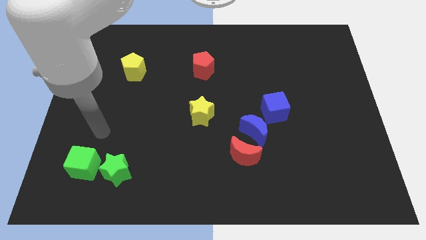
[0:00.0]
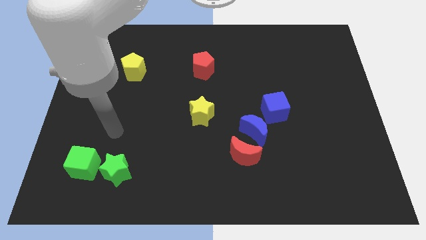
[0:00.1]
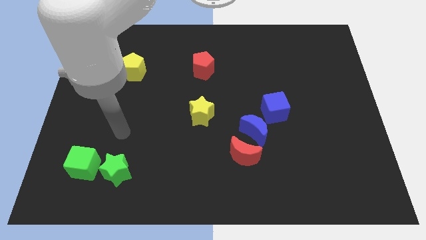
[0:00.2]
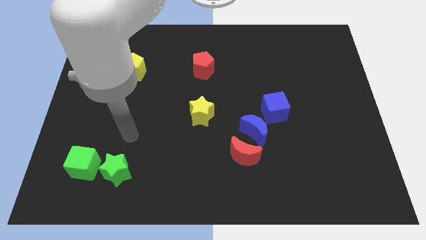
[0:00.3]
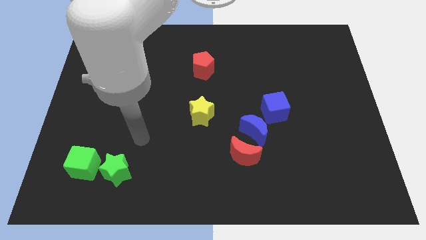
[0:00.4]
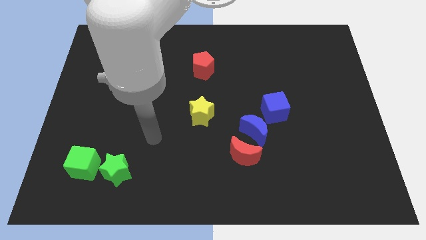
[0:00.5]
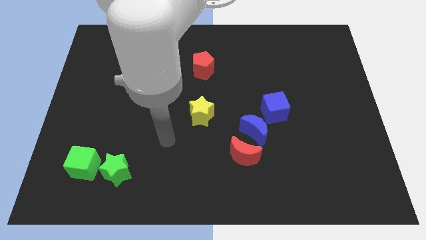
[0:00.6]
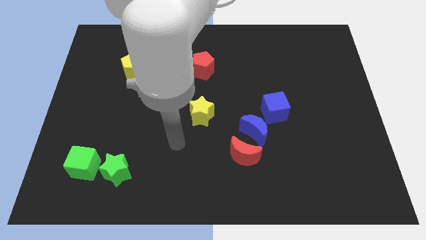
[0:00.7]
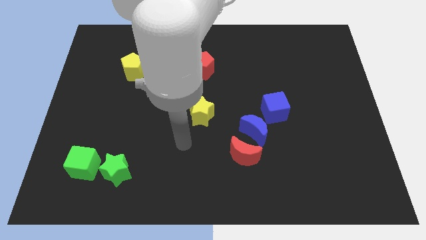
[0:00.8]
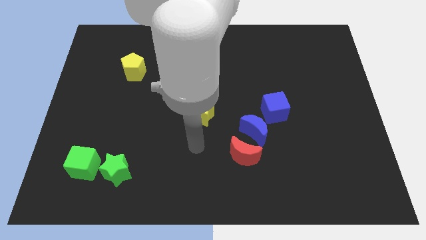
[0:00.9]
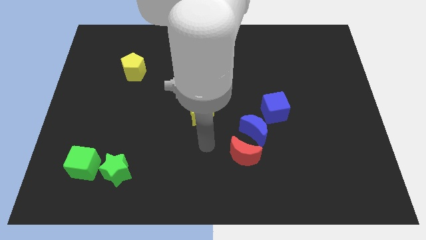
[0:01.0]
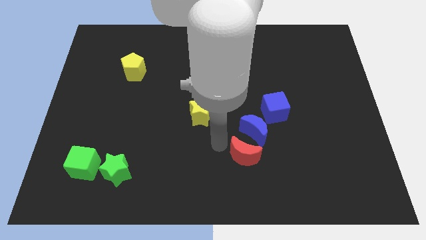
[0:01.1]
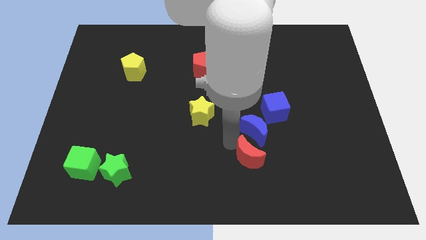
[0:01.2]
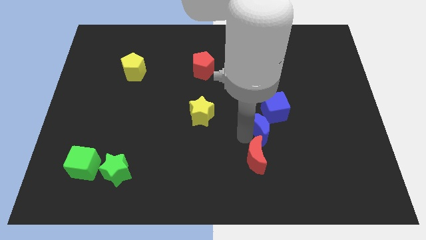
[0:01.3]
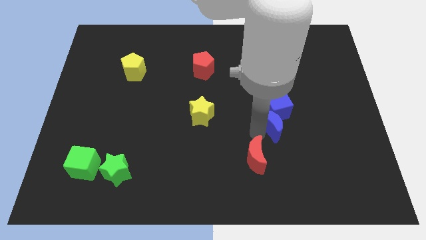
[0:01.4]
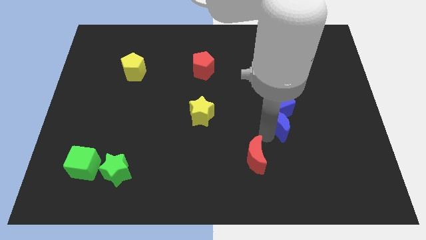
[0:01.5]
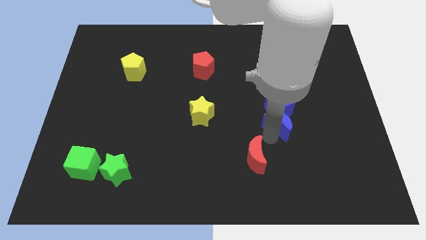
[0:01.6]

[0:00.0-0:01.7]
separate the red moon from the blue moon

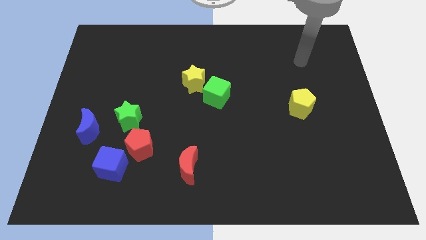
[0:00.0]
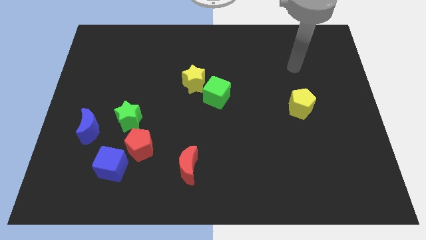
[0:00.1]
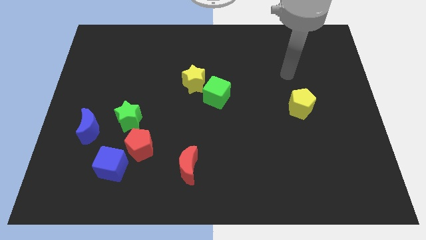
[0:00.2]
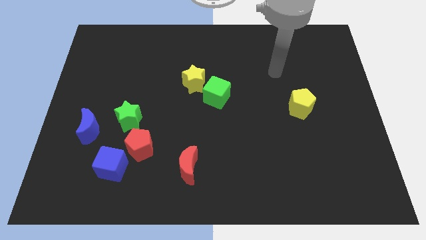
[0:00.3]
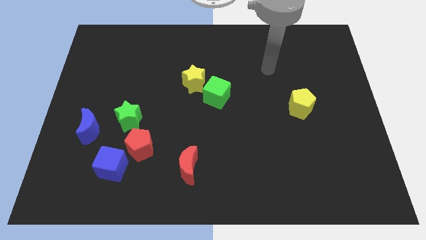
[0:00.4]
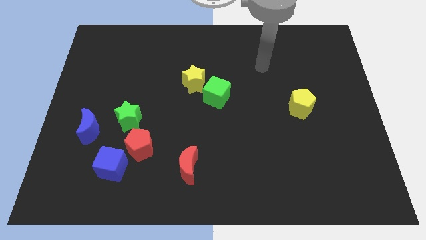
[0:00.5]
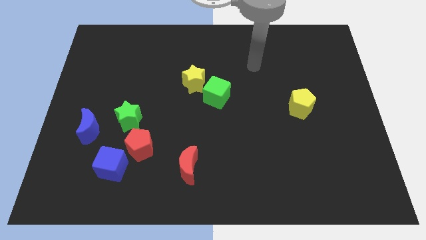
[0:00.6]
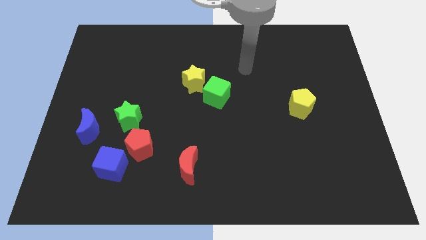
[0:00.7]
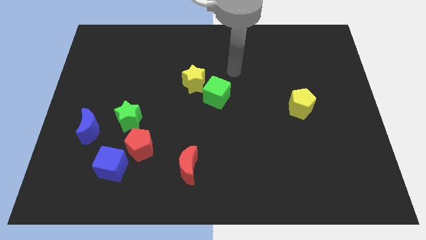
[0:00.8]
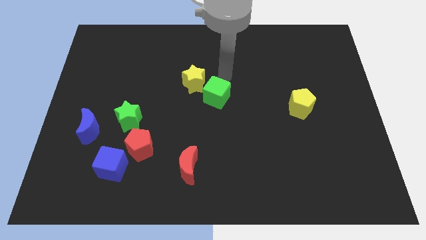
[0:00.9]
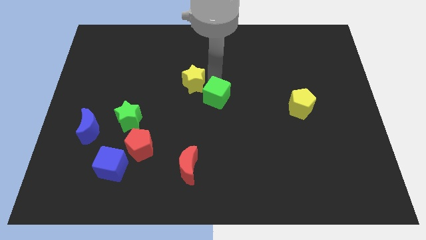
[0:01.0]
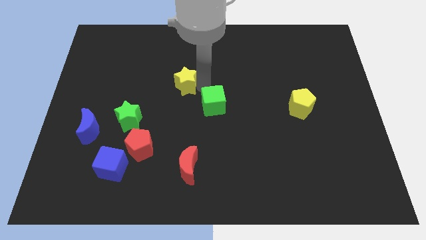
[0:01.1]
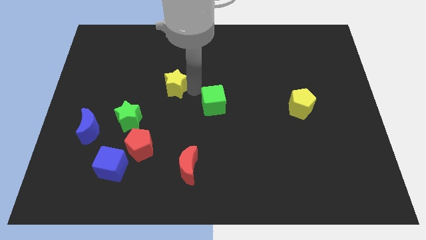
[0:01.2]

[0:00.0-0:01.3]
move the green cube away from the yellow star

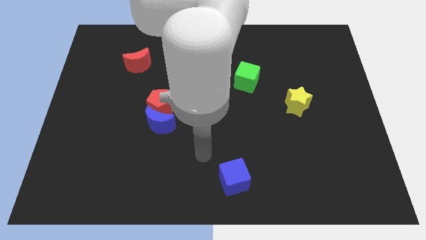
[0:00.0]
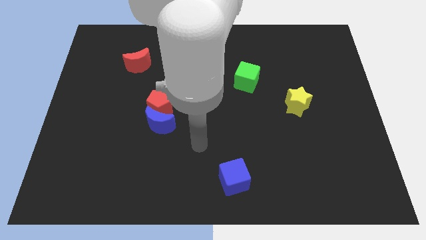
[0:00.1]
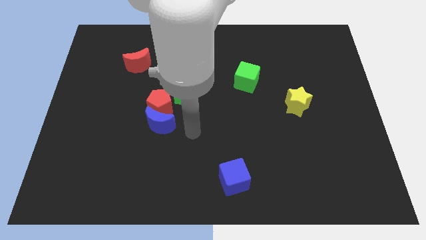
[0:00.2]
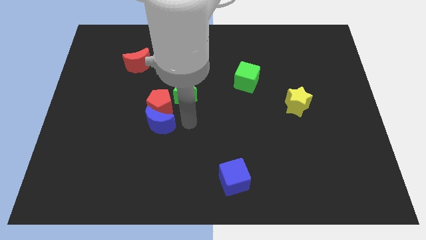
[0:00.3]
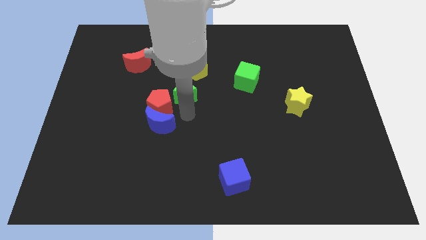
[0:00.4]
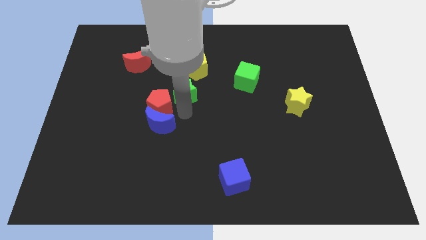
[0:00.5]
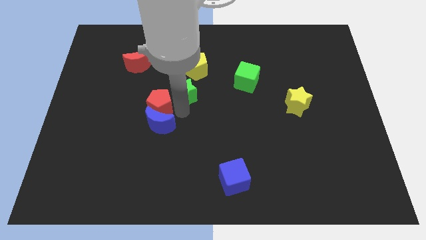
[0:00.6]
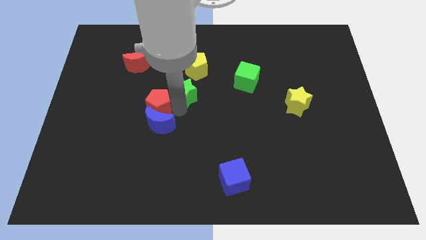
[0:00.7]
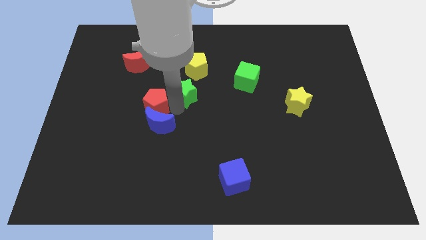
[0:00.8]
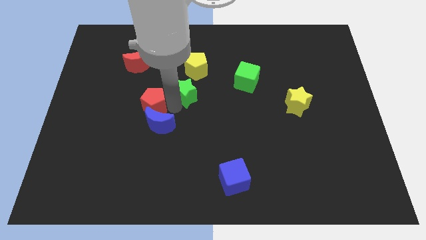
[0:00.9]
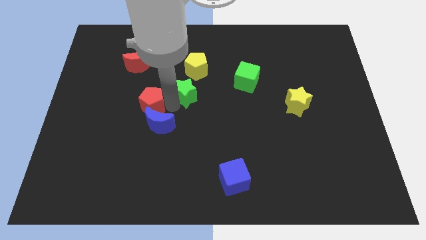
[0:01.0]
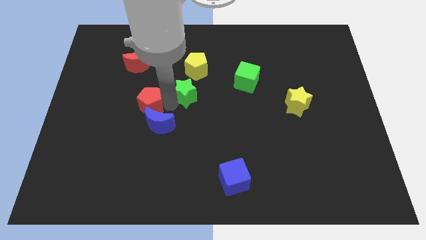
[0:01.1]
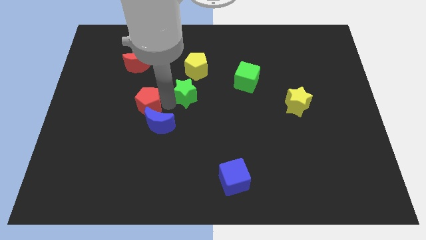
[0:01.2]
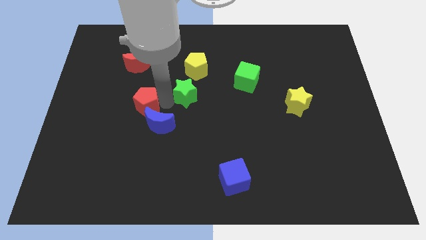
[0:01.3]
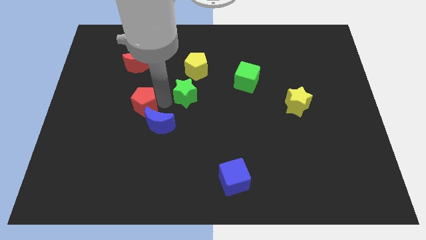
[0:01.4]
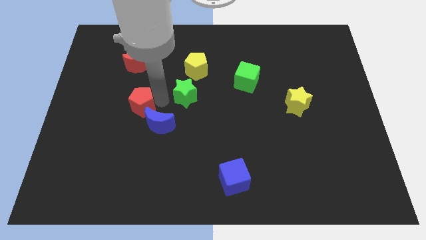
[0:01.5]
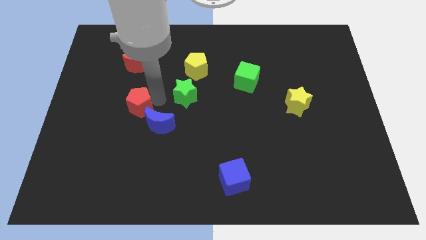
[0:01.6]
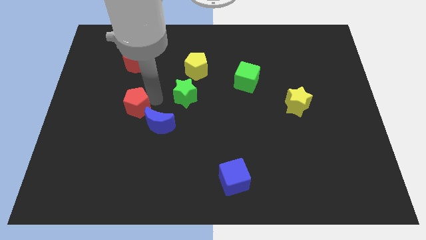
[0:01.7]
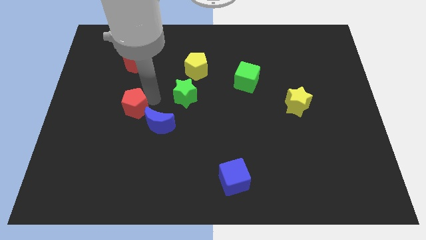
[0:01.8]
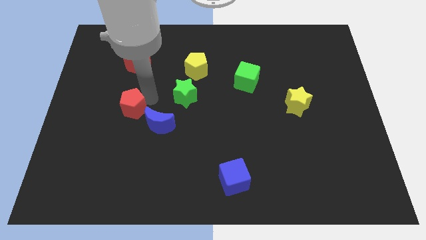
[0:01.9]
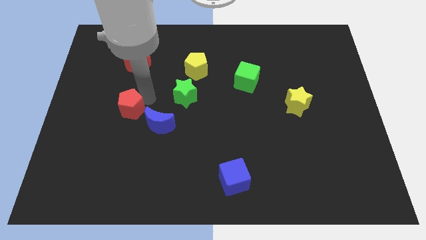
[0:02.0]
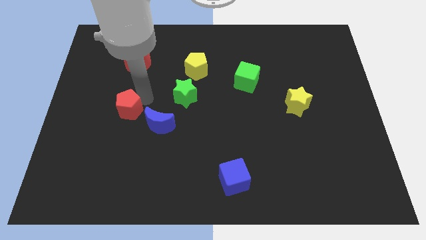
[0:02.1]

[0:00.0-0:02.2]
move the red pentagon away from the blue moon and green star

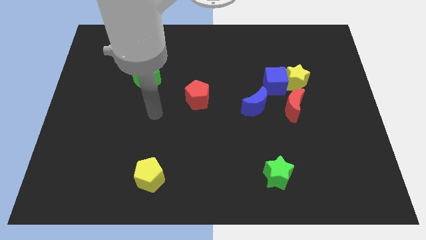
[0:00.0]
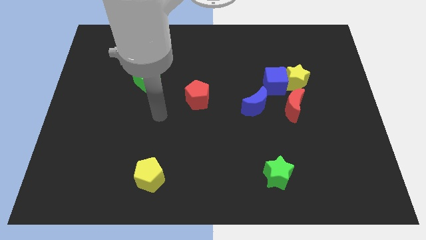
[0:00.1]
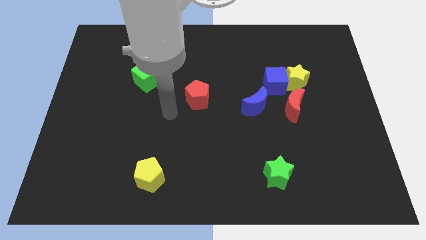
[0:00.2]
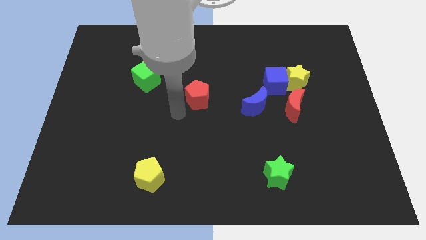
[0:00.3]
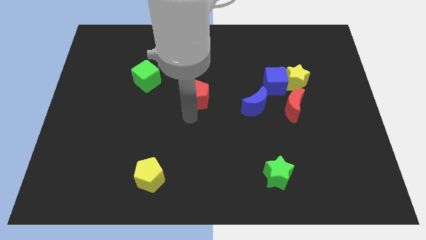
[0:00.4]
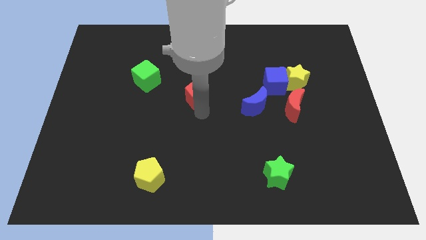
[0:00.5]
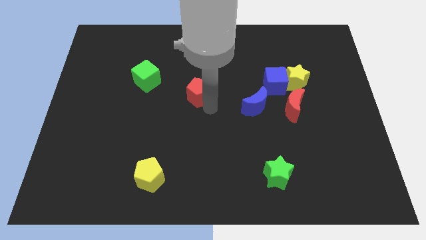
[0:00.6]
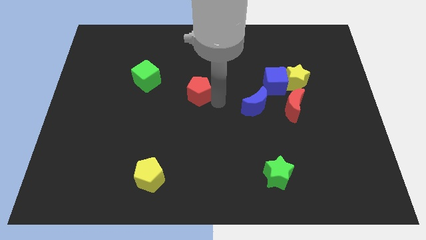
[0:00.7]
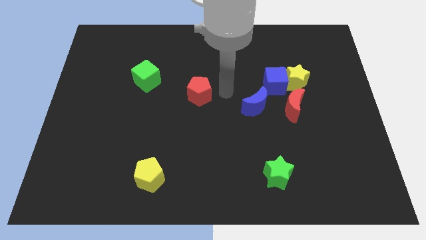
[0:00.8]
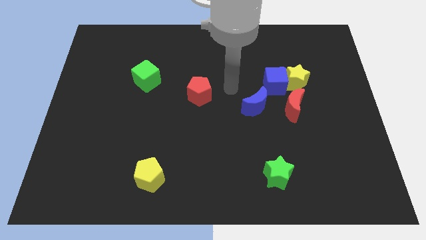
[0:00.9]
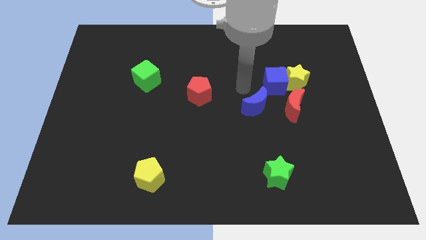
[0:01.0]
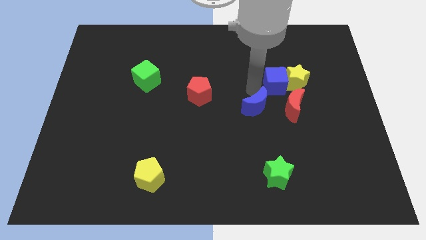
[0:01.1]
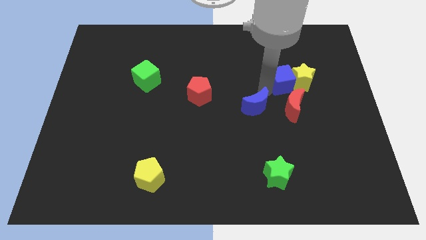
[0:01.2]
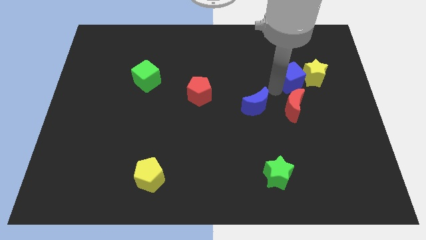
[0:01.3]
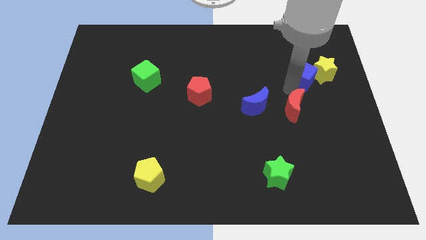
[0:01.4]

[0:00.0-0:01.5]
separate the yellow star from the blue cube and red moon

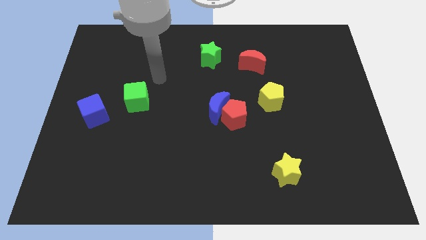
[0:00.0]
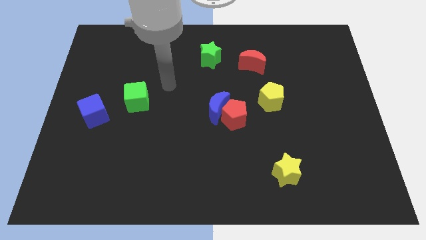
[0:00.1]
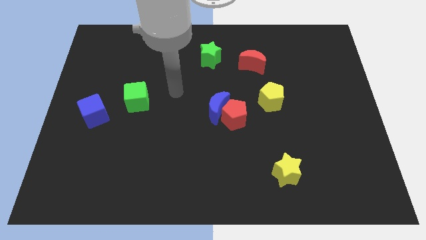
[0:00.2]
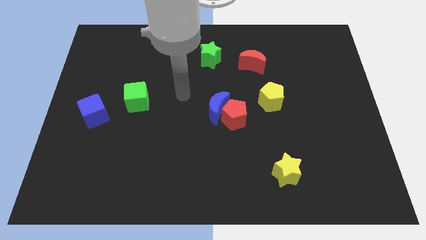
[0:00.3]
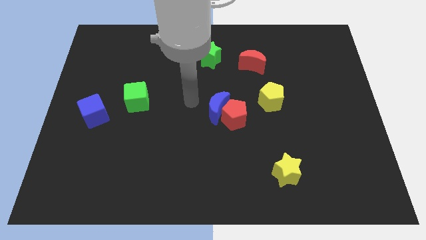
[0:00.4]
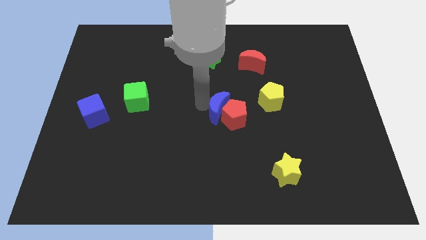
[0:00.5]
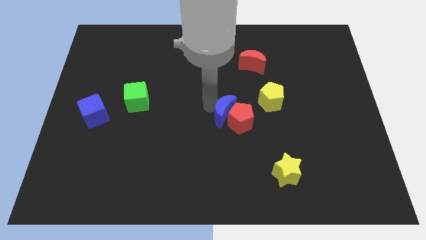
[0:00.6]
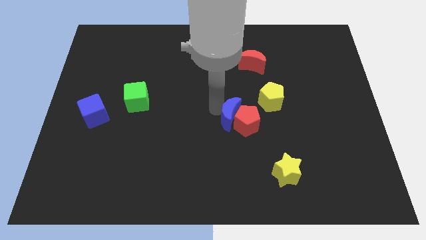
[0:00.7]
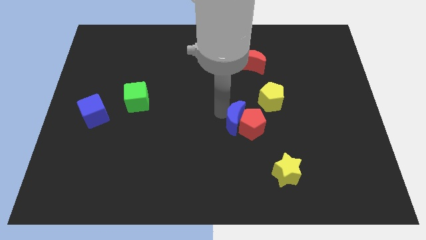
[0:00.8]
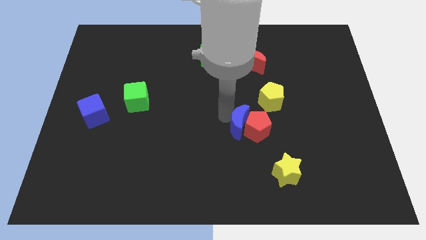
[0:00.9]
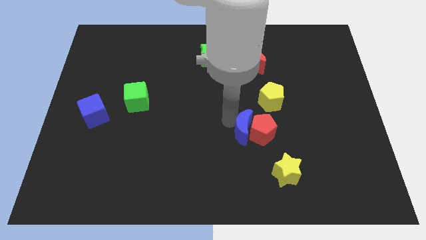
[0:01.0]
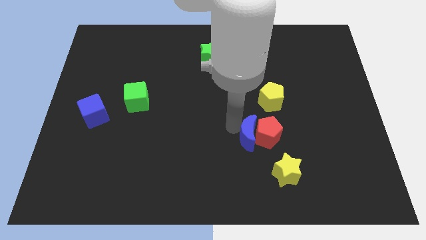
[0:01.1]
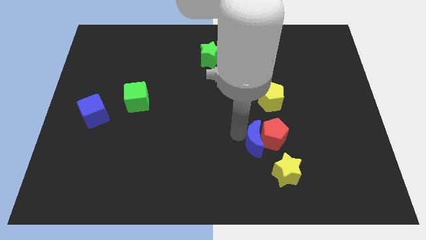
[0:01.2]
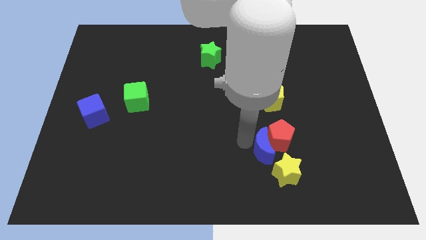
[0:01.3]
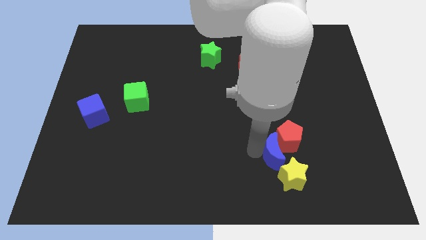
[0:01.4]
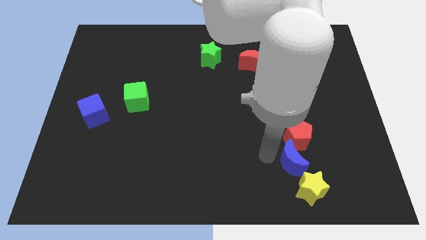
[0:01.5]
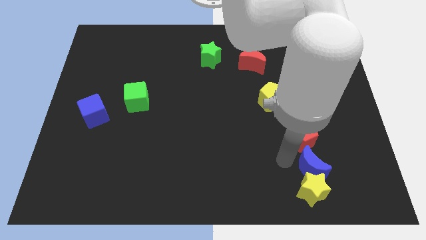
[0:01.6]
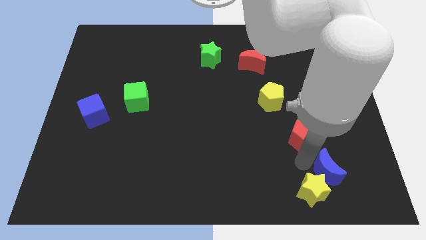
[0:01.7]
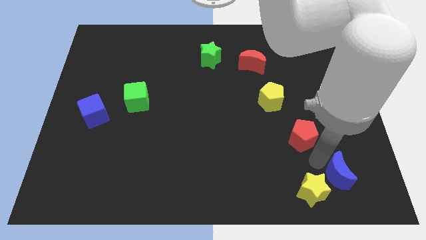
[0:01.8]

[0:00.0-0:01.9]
move the red pentagon away from the blue moon

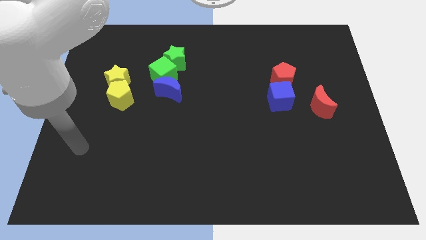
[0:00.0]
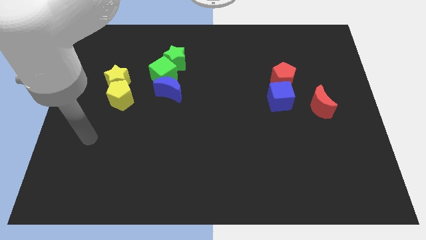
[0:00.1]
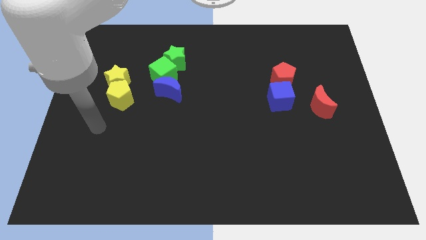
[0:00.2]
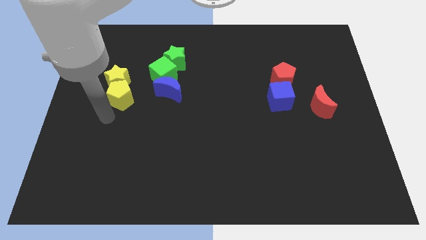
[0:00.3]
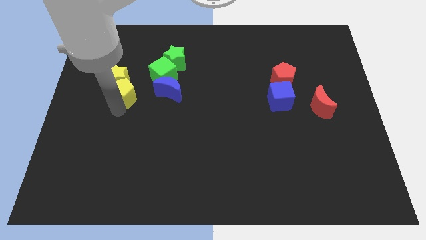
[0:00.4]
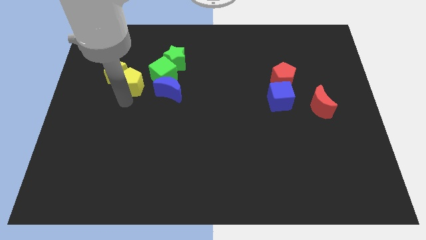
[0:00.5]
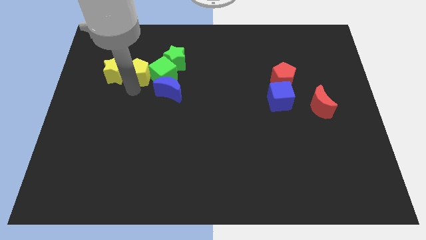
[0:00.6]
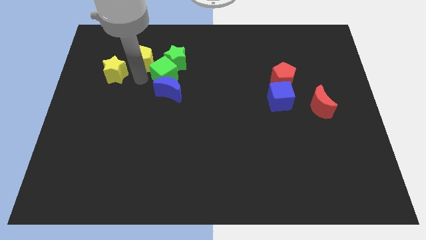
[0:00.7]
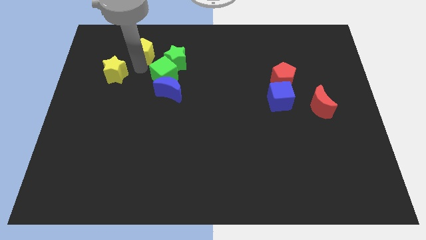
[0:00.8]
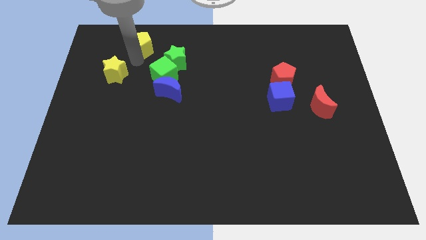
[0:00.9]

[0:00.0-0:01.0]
pull the yellow star apart from the yellow pentagon
